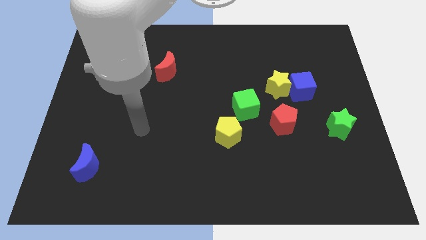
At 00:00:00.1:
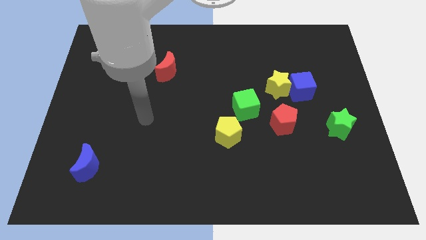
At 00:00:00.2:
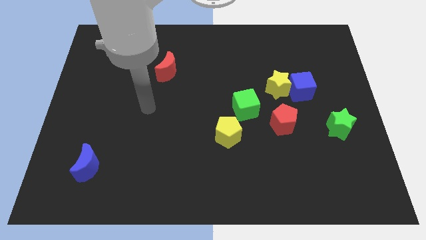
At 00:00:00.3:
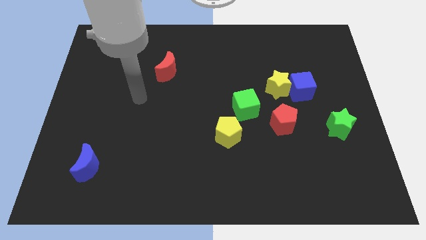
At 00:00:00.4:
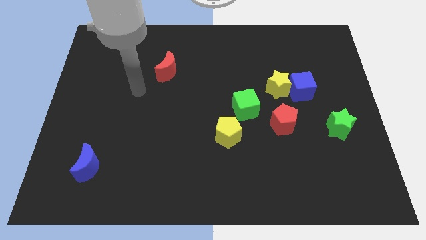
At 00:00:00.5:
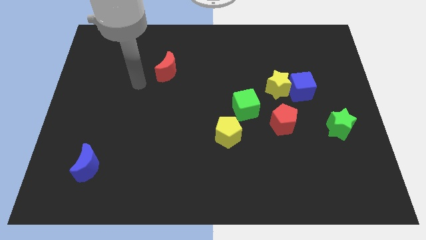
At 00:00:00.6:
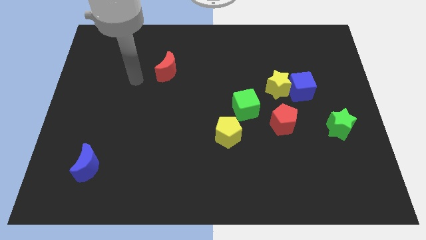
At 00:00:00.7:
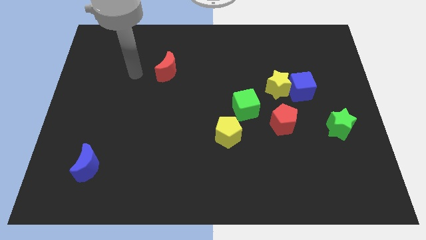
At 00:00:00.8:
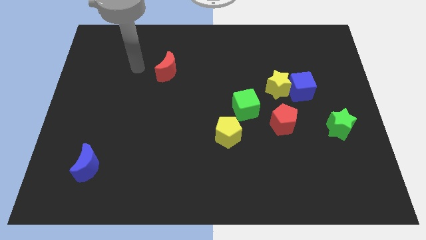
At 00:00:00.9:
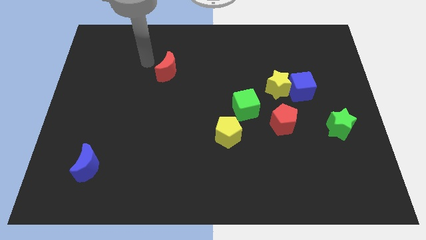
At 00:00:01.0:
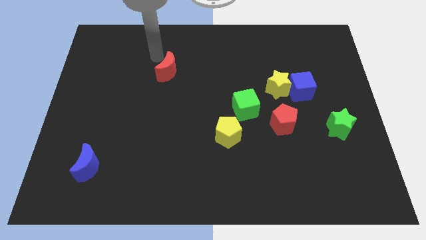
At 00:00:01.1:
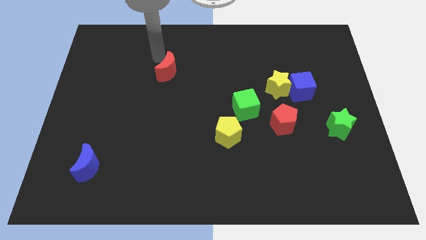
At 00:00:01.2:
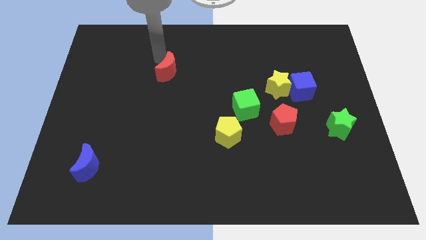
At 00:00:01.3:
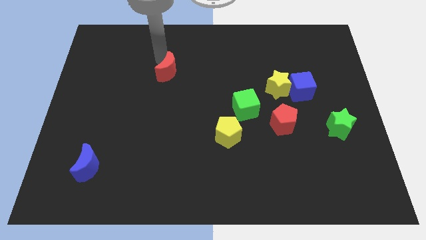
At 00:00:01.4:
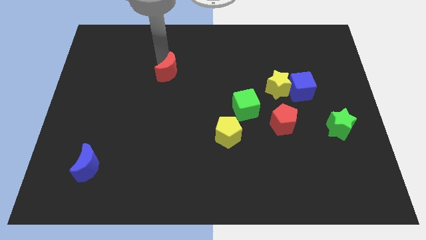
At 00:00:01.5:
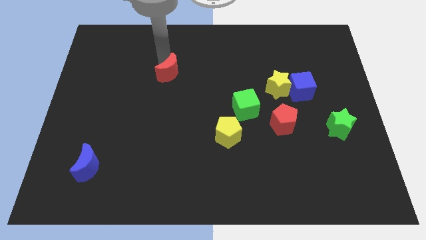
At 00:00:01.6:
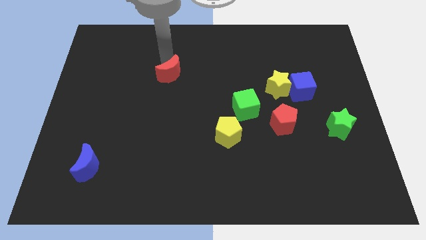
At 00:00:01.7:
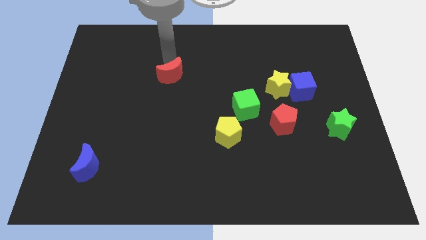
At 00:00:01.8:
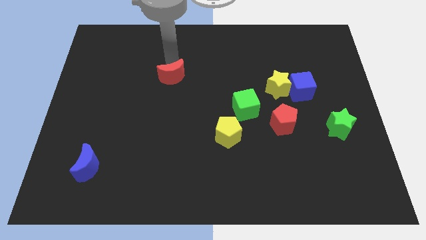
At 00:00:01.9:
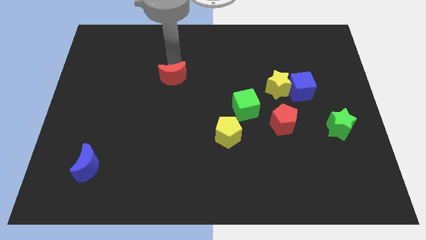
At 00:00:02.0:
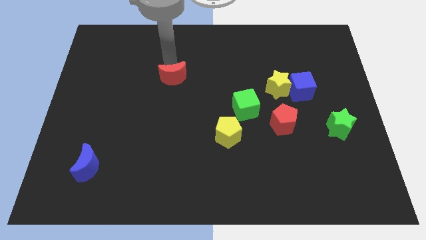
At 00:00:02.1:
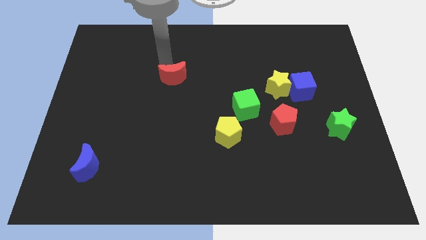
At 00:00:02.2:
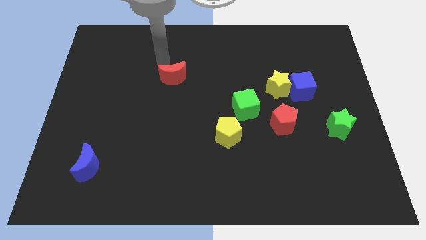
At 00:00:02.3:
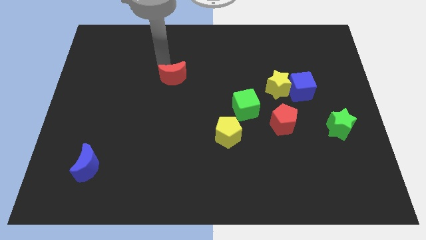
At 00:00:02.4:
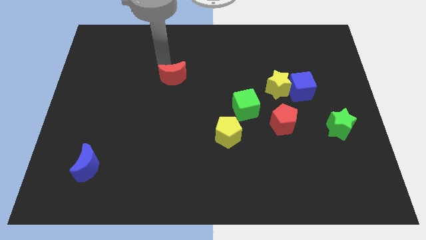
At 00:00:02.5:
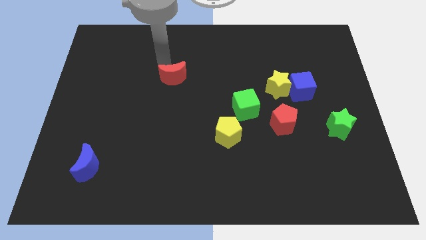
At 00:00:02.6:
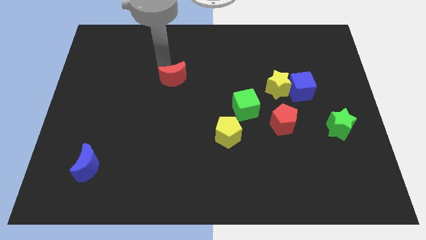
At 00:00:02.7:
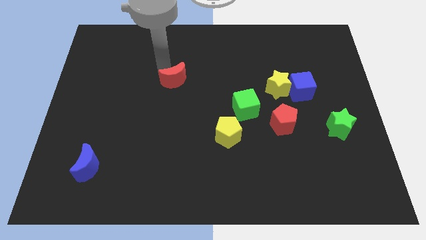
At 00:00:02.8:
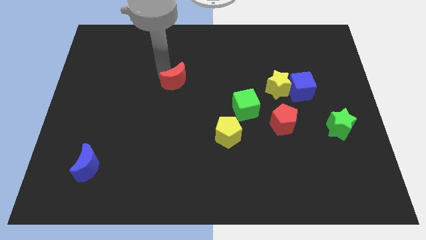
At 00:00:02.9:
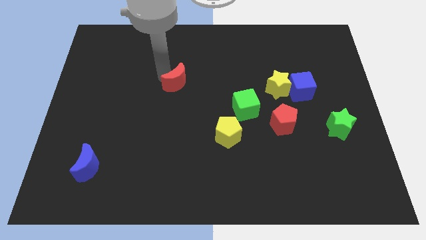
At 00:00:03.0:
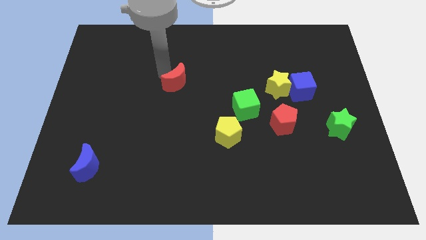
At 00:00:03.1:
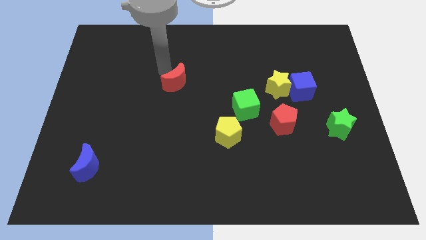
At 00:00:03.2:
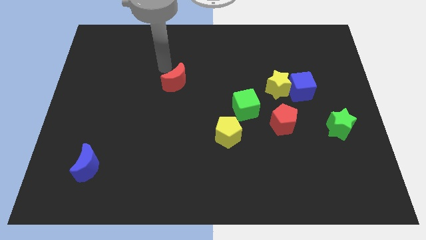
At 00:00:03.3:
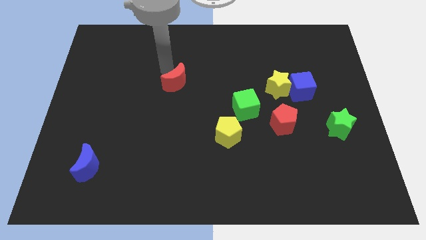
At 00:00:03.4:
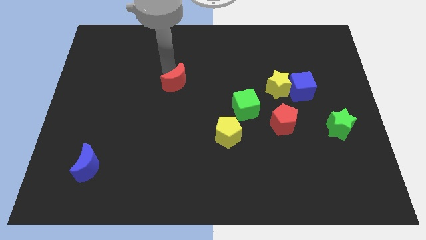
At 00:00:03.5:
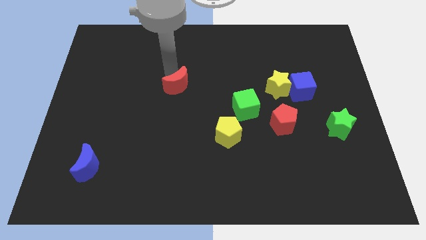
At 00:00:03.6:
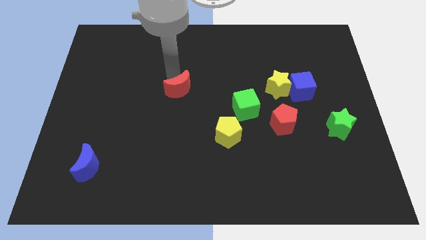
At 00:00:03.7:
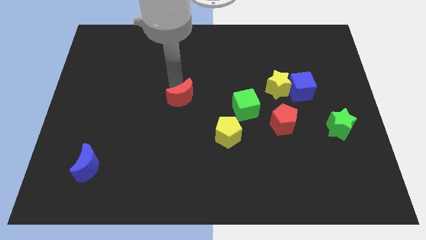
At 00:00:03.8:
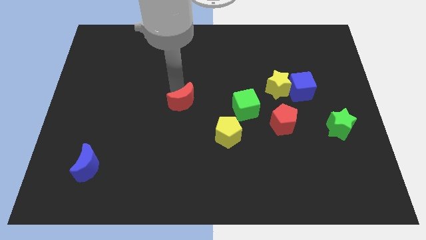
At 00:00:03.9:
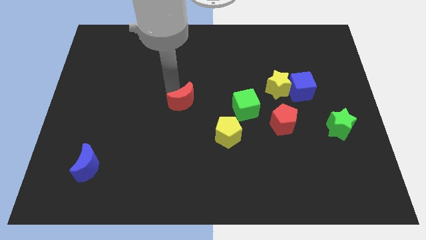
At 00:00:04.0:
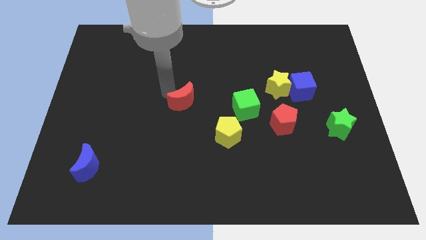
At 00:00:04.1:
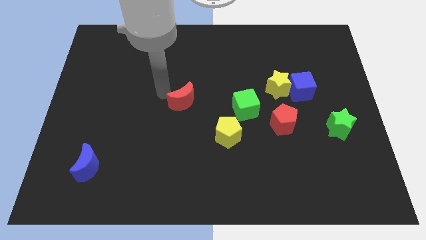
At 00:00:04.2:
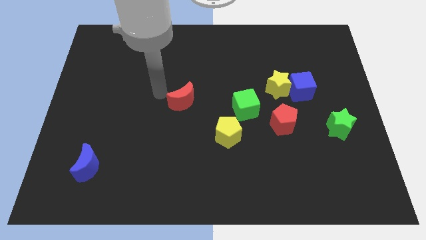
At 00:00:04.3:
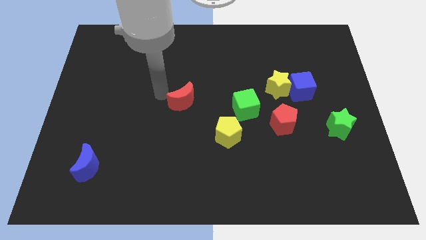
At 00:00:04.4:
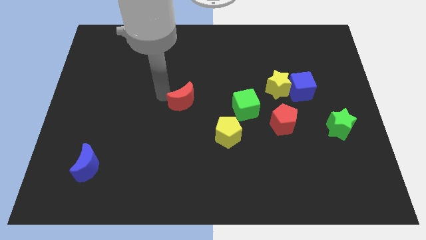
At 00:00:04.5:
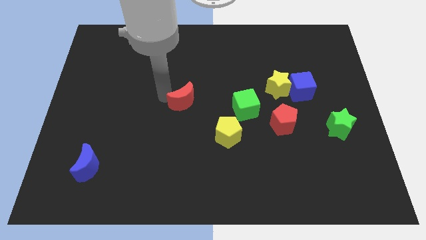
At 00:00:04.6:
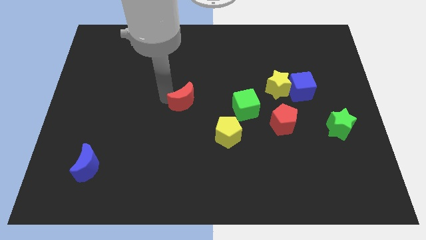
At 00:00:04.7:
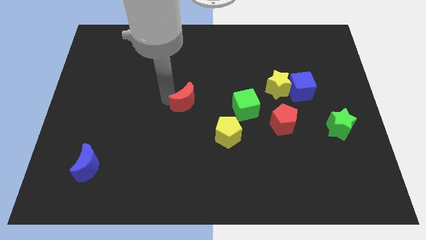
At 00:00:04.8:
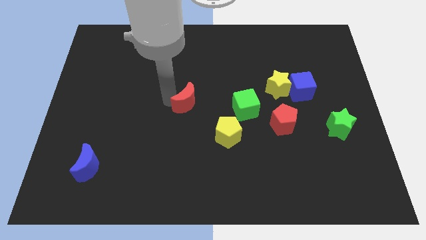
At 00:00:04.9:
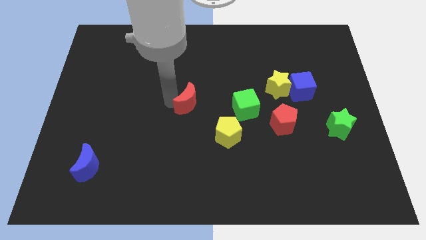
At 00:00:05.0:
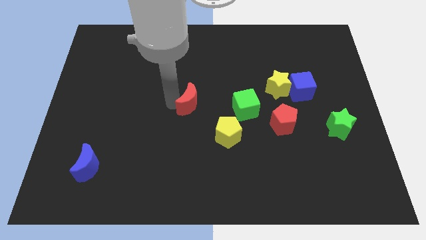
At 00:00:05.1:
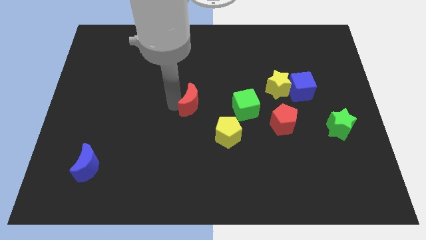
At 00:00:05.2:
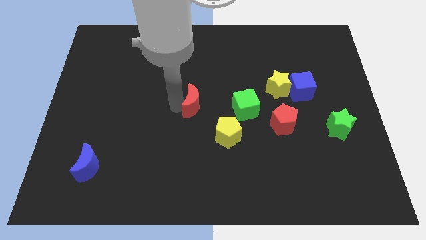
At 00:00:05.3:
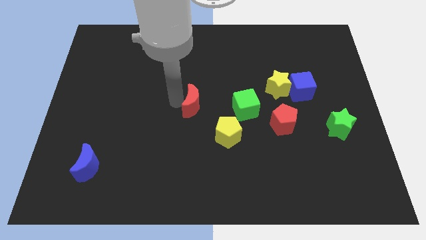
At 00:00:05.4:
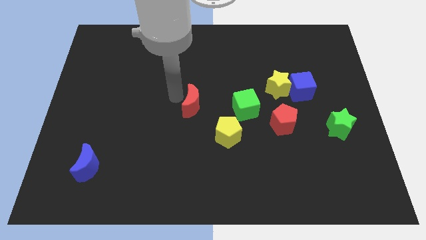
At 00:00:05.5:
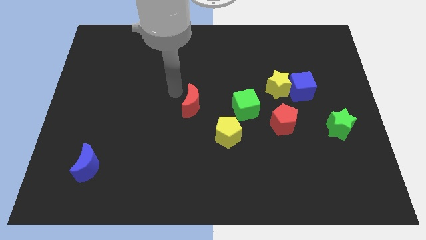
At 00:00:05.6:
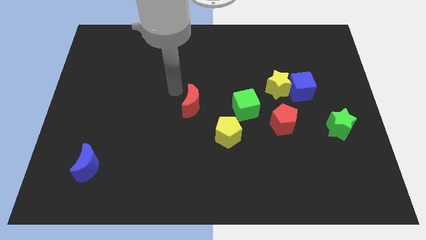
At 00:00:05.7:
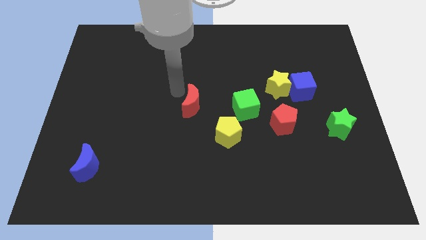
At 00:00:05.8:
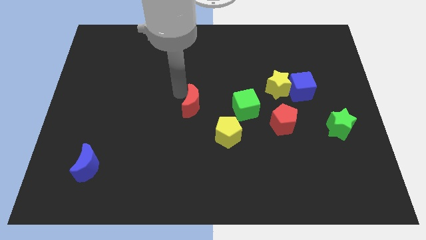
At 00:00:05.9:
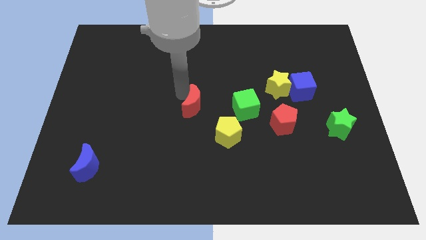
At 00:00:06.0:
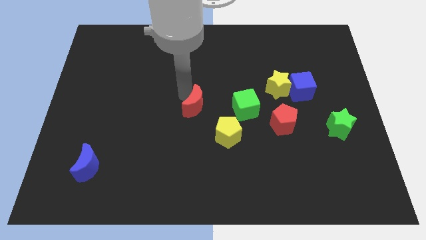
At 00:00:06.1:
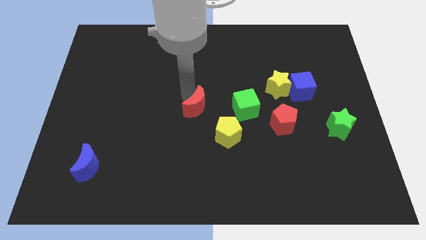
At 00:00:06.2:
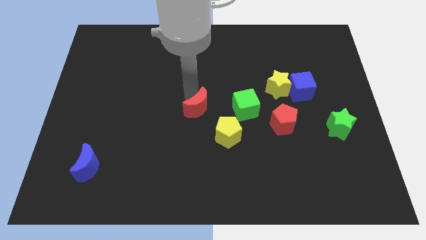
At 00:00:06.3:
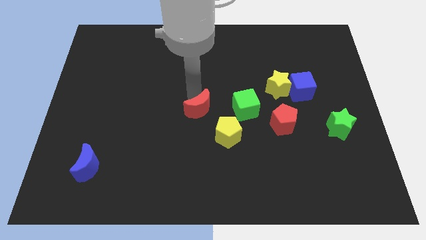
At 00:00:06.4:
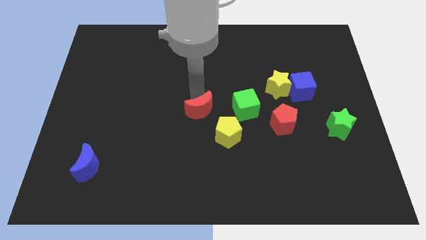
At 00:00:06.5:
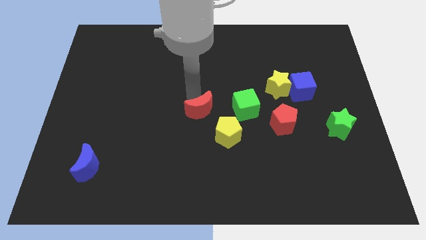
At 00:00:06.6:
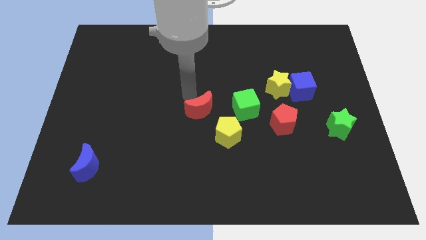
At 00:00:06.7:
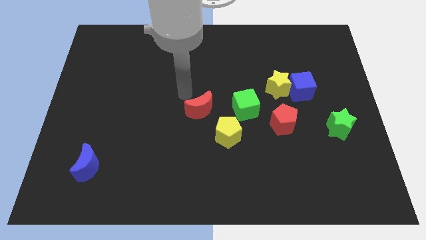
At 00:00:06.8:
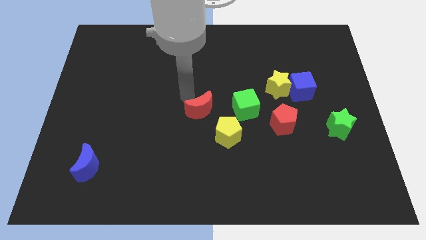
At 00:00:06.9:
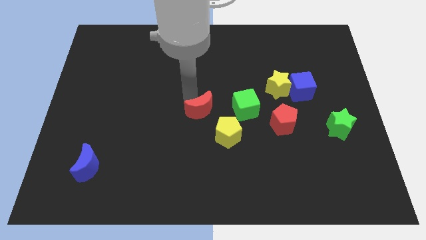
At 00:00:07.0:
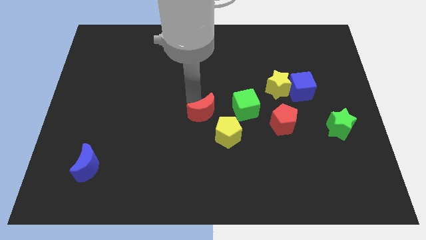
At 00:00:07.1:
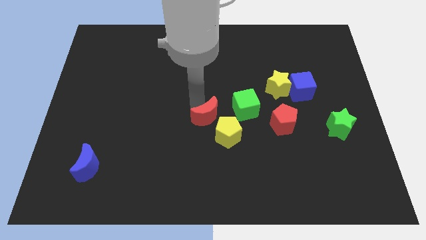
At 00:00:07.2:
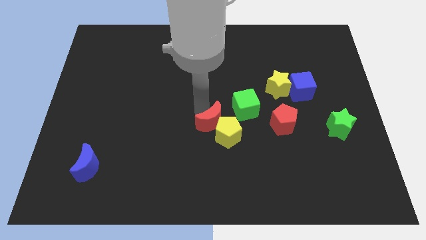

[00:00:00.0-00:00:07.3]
slide the red moon towards the yellow pentagon
